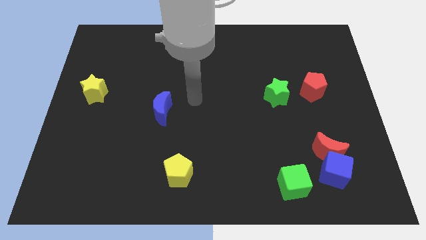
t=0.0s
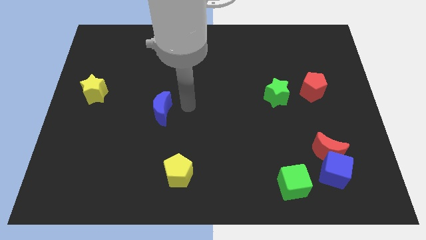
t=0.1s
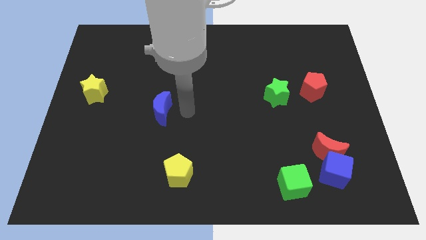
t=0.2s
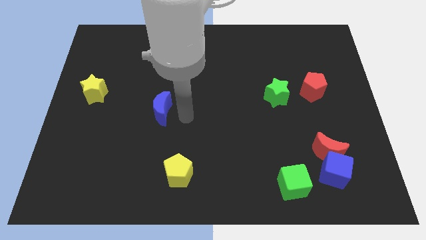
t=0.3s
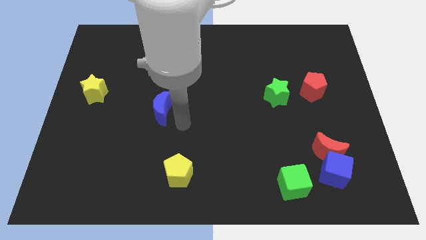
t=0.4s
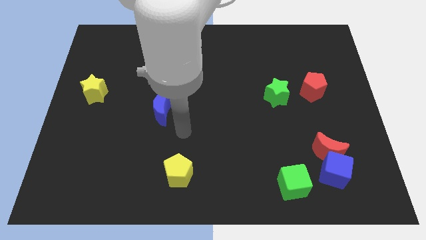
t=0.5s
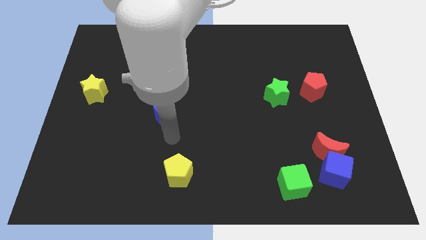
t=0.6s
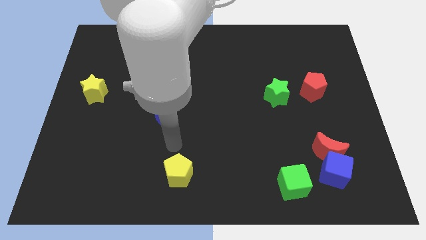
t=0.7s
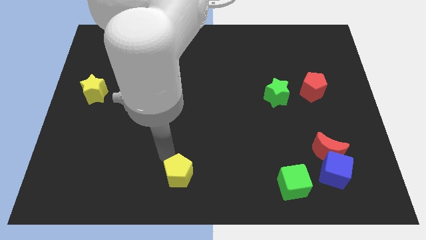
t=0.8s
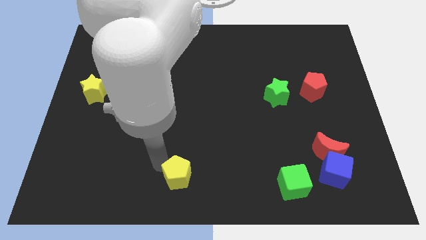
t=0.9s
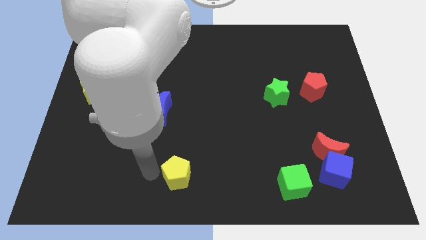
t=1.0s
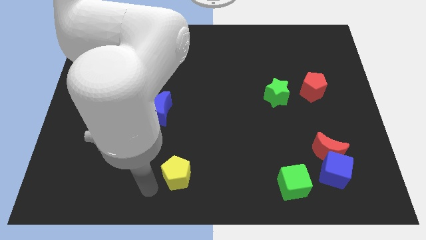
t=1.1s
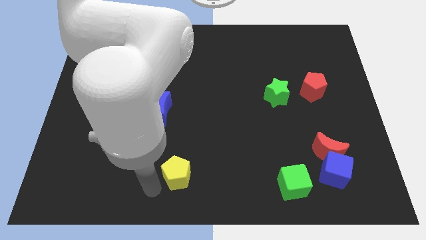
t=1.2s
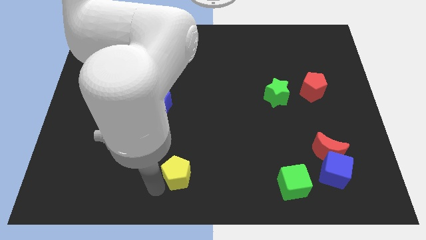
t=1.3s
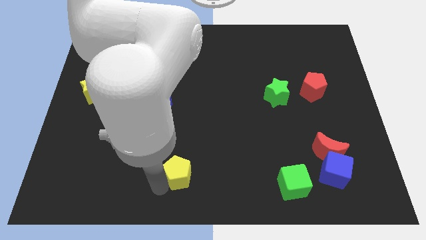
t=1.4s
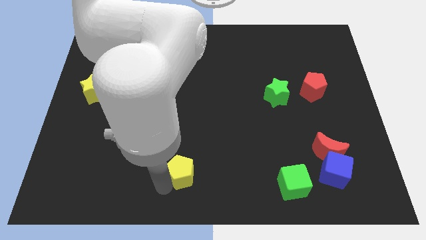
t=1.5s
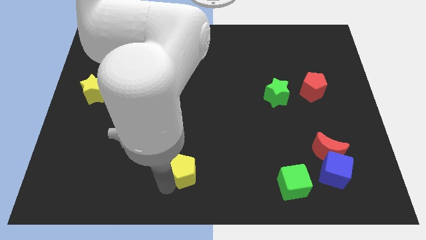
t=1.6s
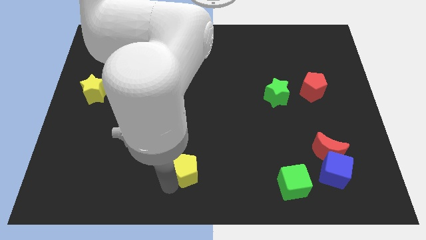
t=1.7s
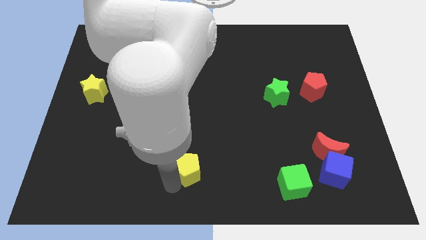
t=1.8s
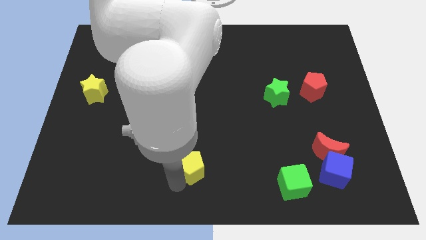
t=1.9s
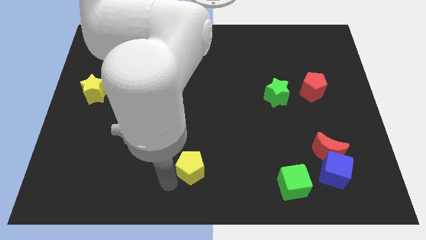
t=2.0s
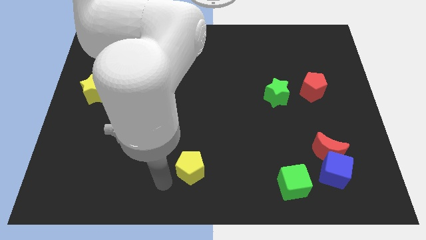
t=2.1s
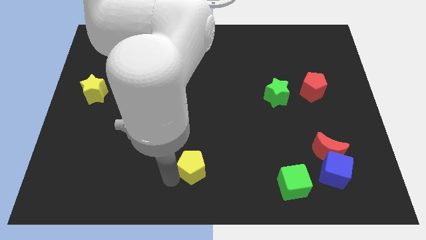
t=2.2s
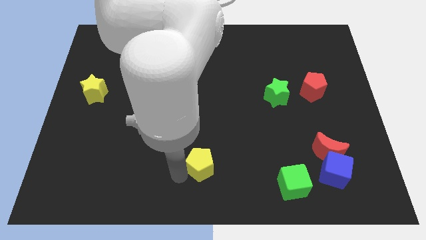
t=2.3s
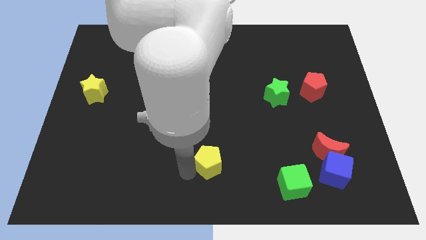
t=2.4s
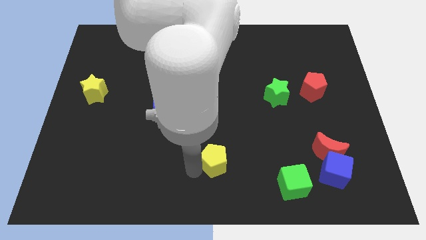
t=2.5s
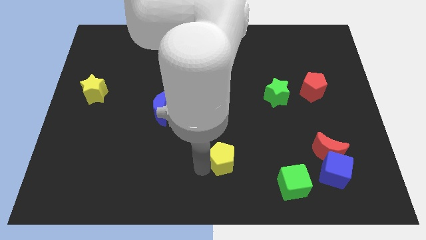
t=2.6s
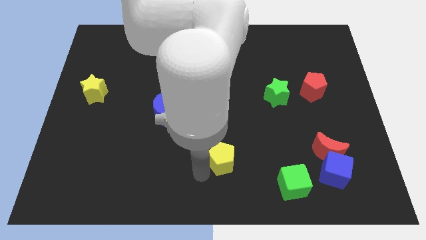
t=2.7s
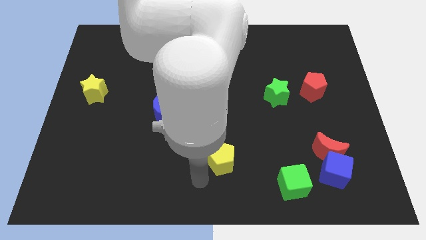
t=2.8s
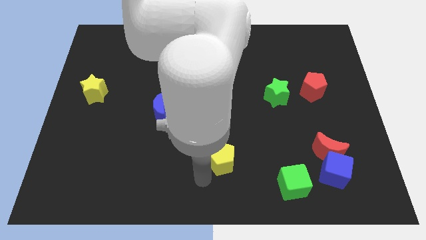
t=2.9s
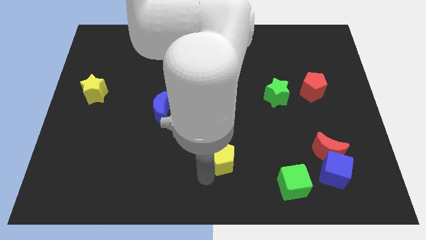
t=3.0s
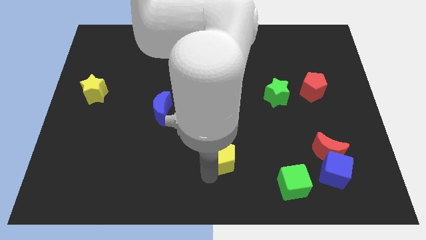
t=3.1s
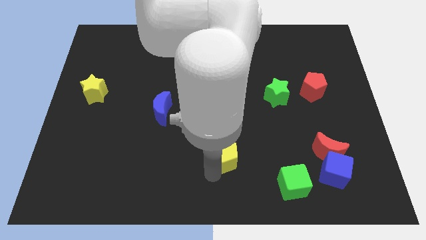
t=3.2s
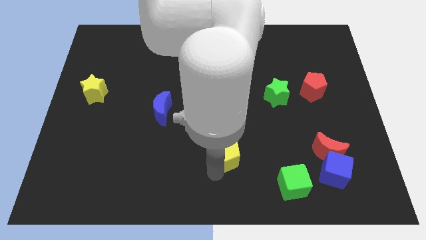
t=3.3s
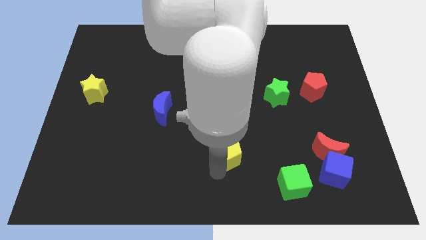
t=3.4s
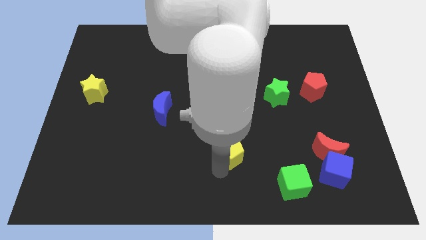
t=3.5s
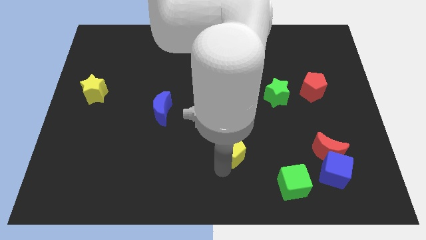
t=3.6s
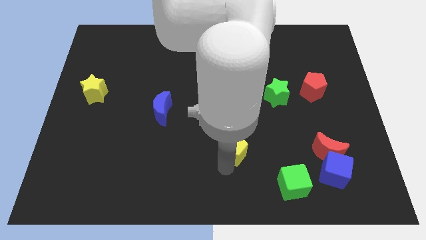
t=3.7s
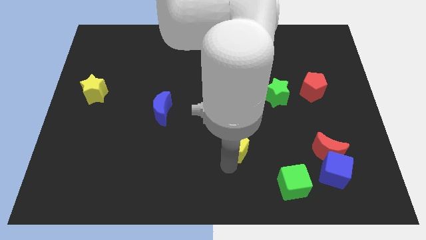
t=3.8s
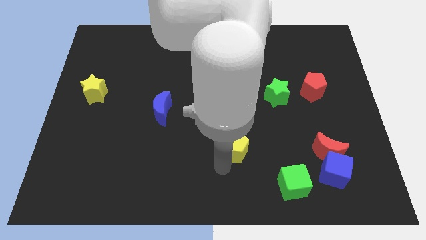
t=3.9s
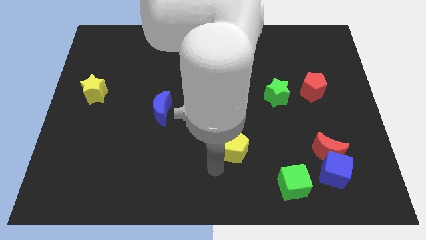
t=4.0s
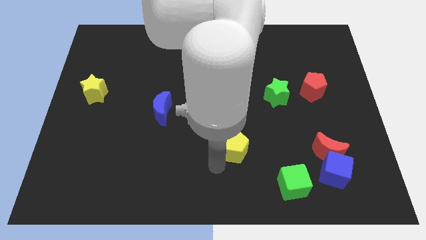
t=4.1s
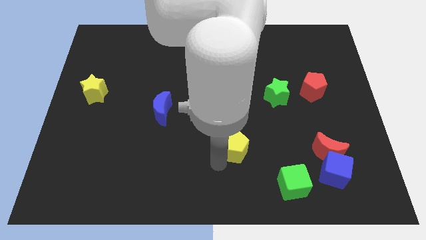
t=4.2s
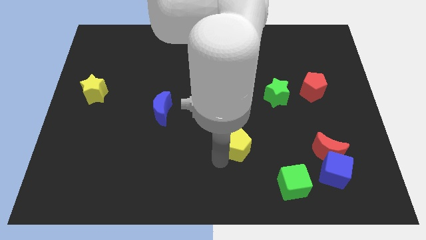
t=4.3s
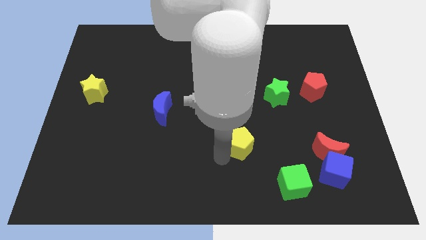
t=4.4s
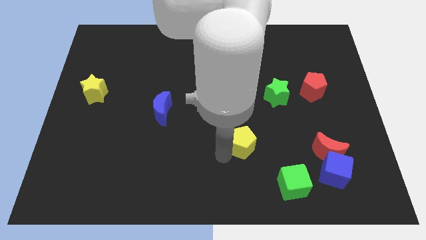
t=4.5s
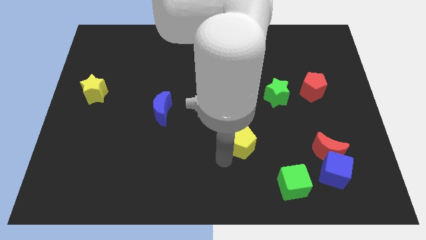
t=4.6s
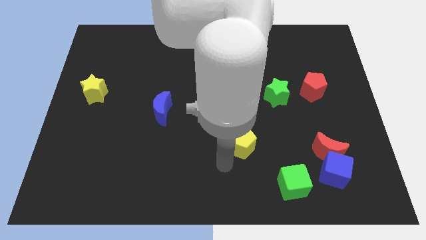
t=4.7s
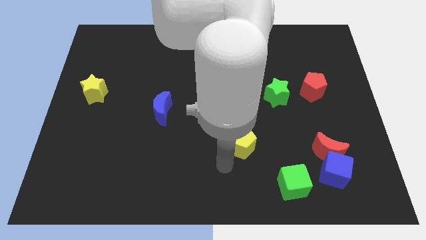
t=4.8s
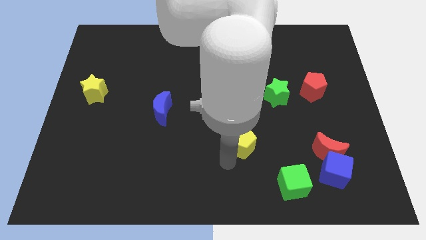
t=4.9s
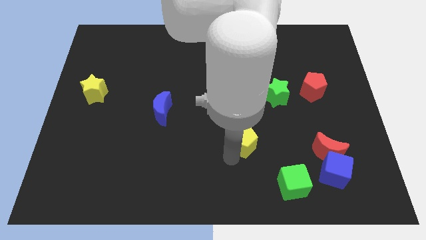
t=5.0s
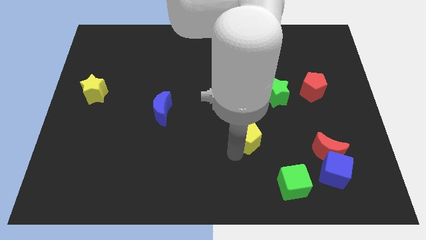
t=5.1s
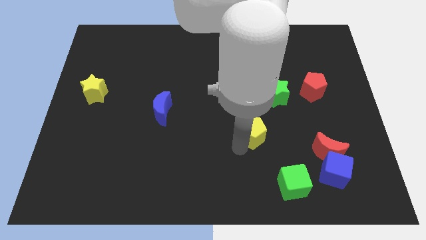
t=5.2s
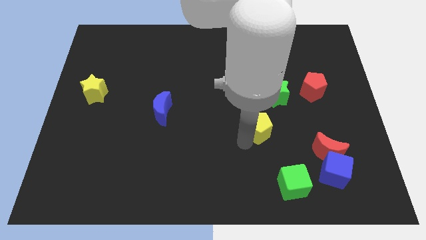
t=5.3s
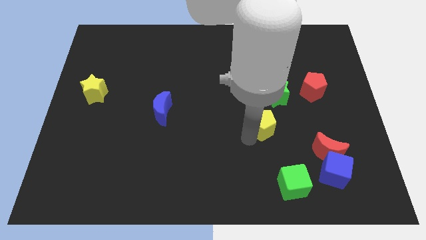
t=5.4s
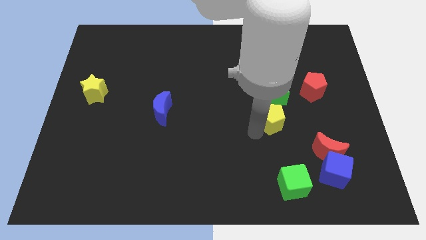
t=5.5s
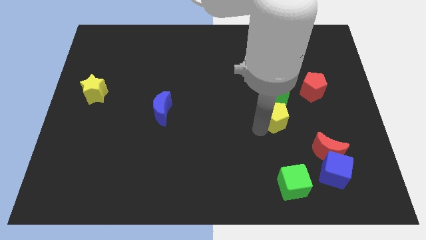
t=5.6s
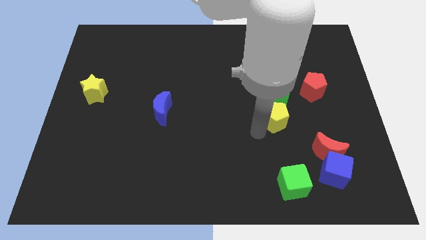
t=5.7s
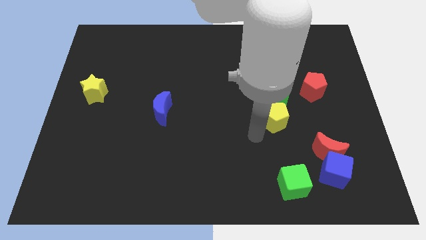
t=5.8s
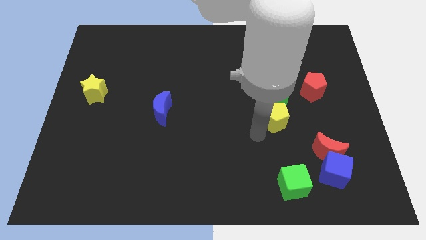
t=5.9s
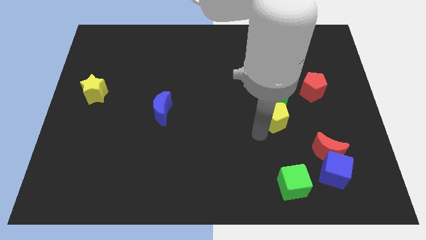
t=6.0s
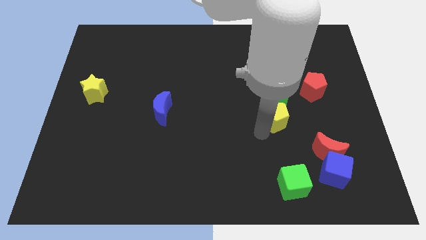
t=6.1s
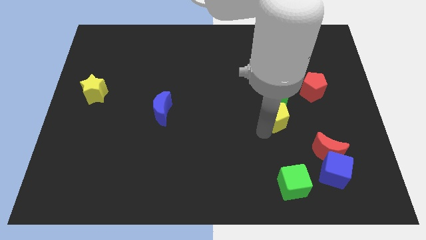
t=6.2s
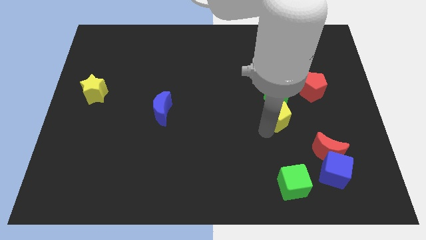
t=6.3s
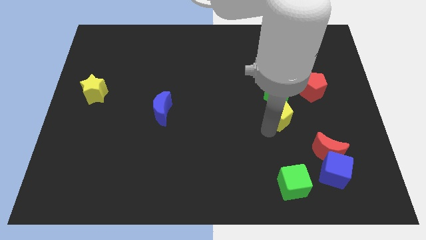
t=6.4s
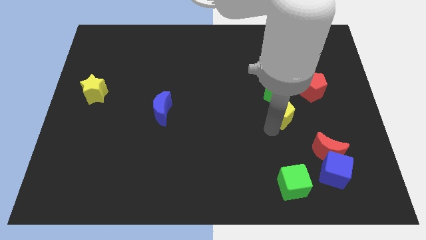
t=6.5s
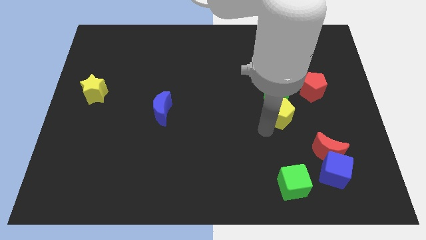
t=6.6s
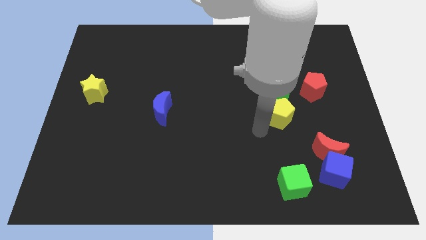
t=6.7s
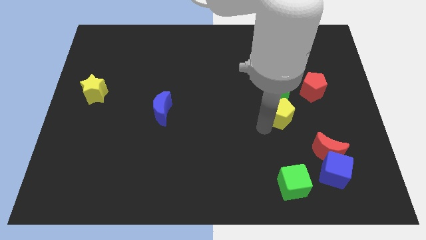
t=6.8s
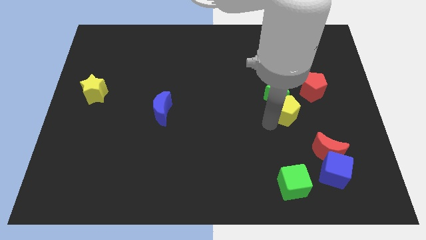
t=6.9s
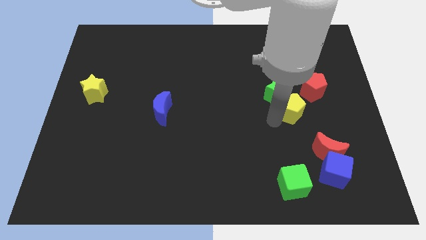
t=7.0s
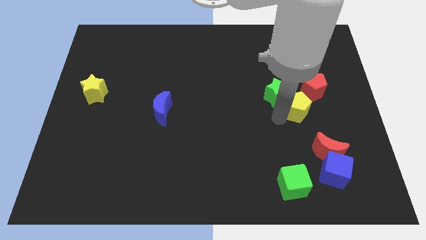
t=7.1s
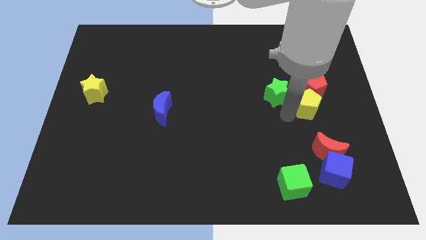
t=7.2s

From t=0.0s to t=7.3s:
move the yellow pentagon towards the red pentagon

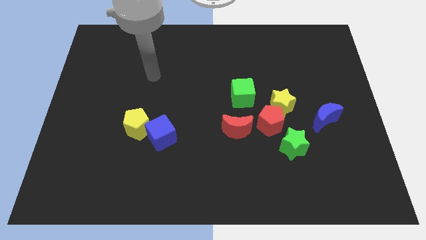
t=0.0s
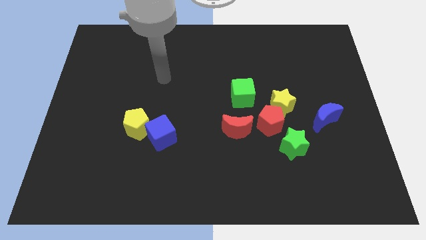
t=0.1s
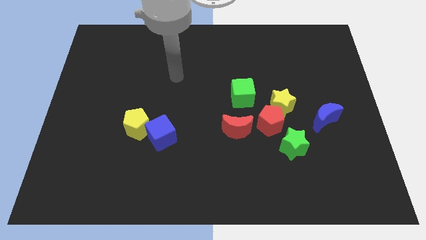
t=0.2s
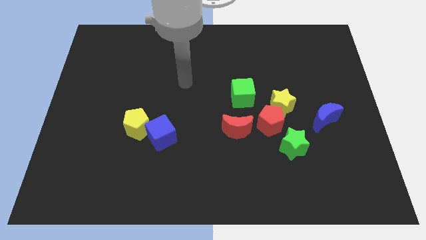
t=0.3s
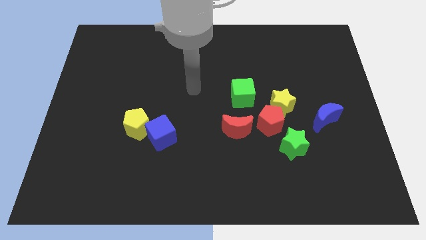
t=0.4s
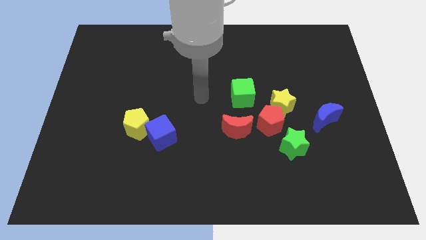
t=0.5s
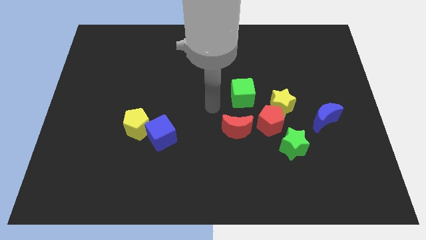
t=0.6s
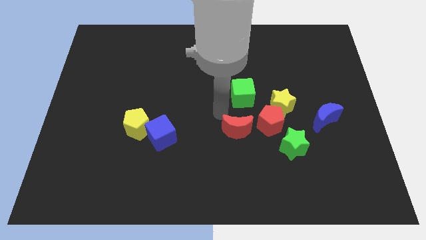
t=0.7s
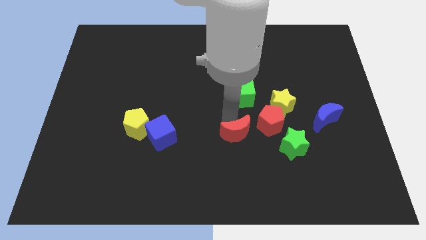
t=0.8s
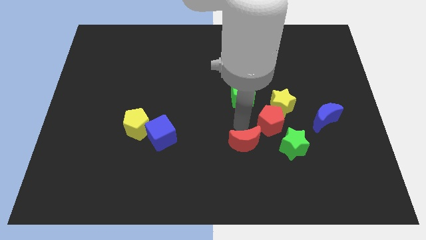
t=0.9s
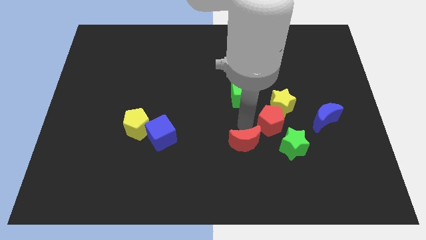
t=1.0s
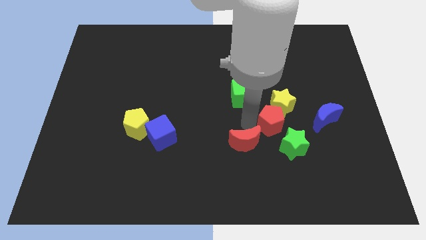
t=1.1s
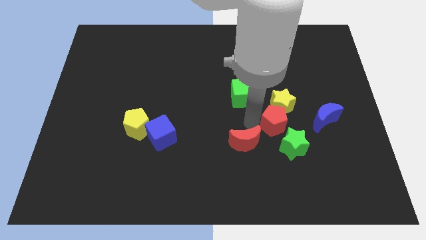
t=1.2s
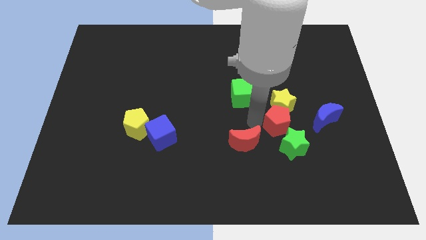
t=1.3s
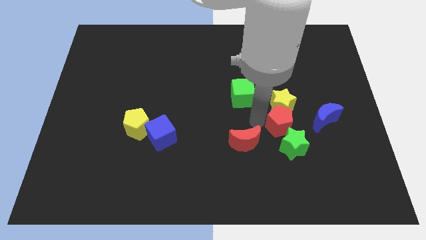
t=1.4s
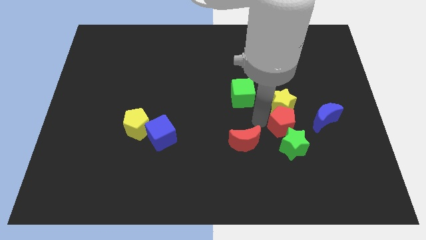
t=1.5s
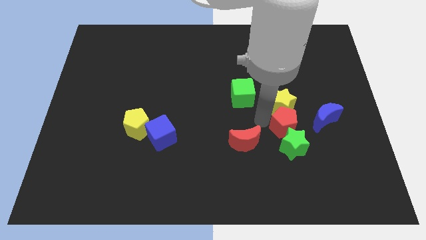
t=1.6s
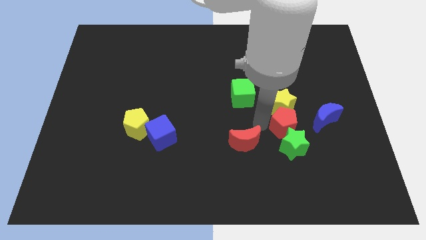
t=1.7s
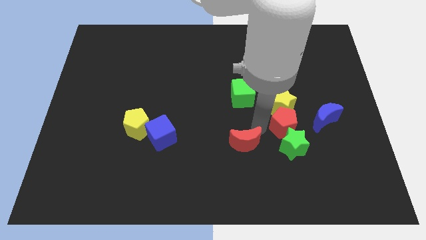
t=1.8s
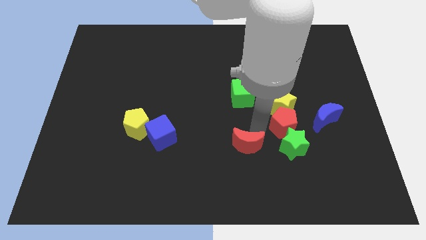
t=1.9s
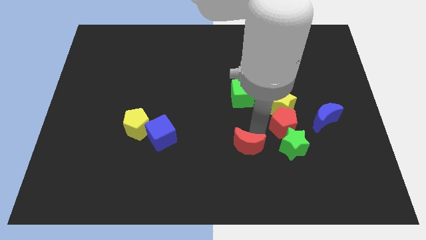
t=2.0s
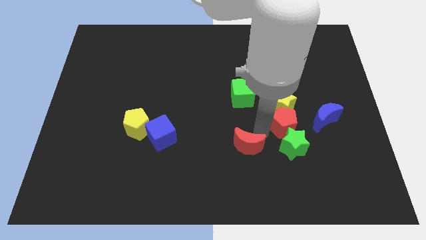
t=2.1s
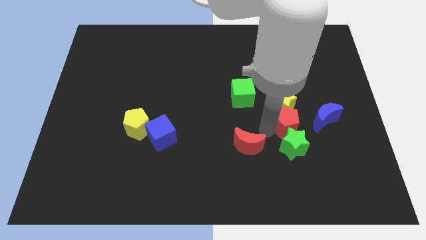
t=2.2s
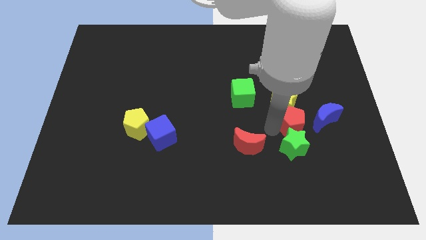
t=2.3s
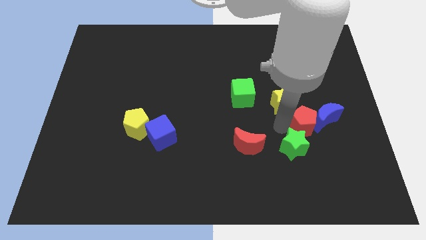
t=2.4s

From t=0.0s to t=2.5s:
push the red pentagon towards the blue moon
